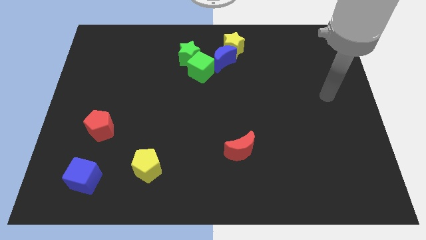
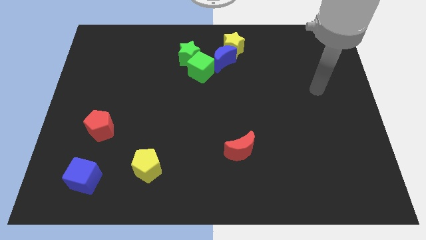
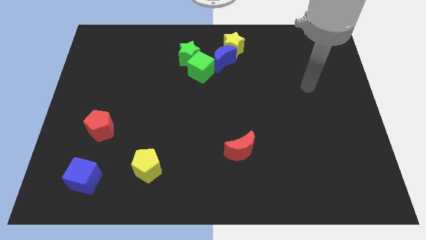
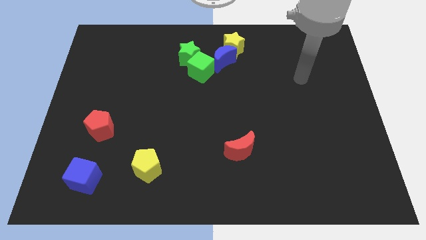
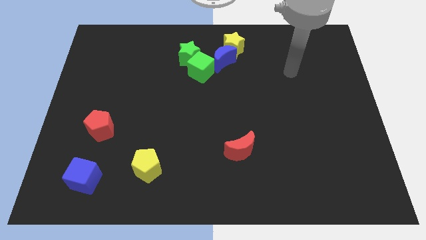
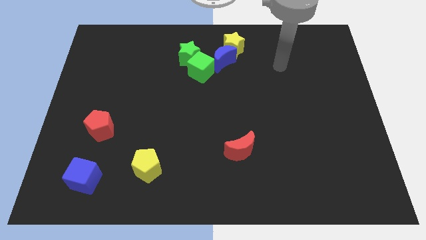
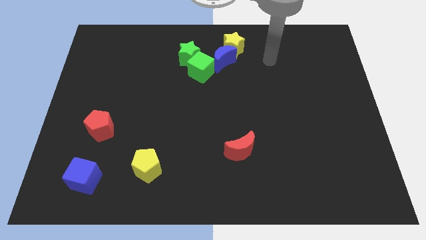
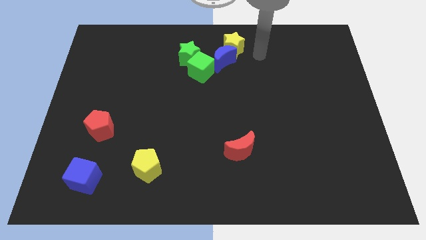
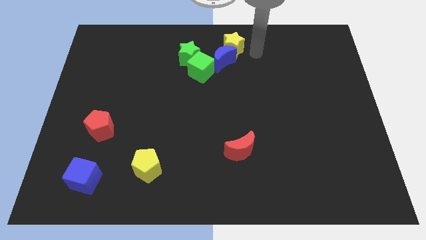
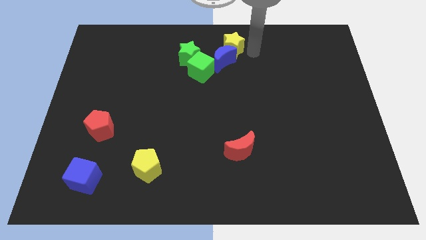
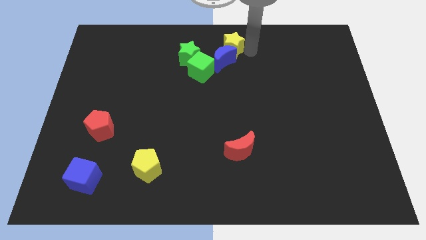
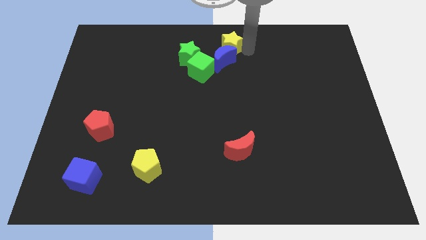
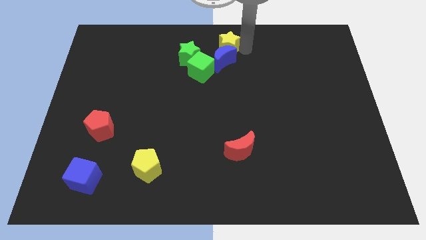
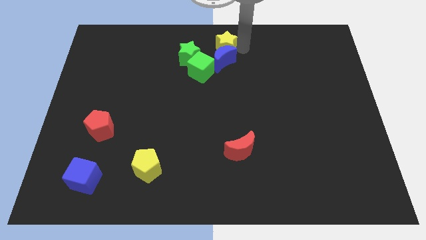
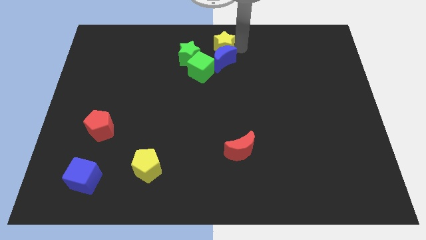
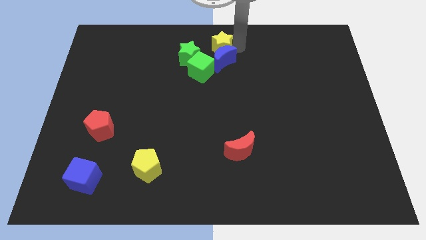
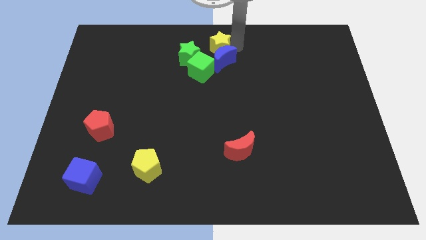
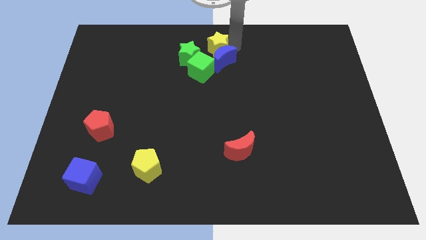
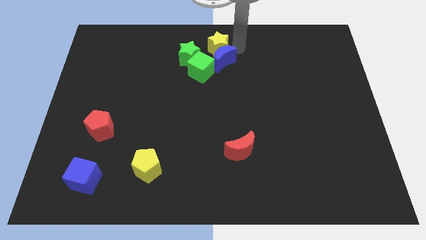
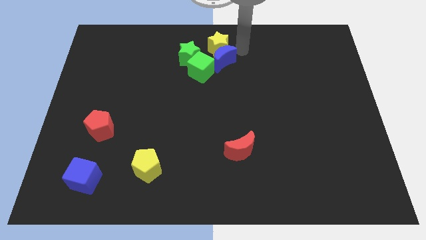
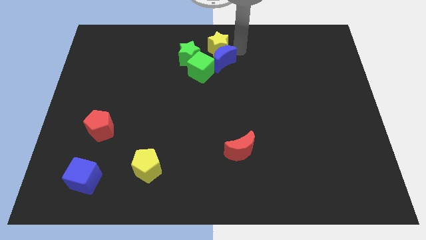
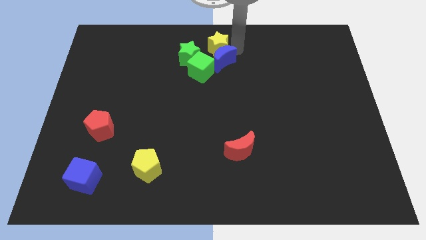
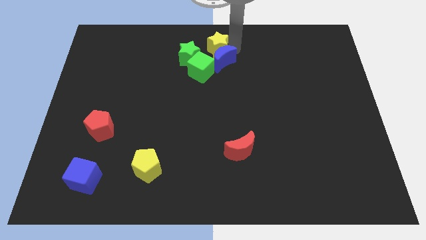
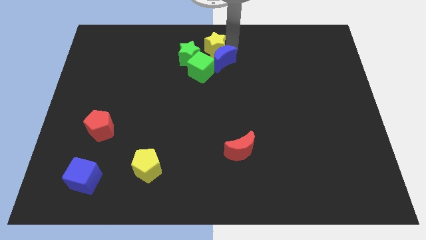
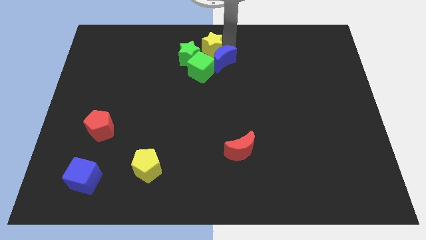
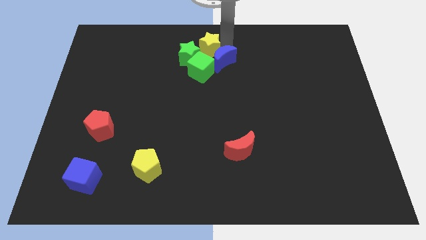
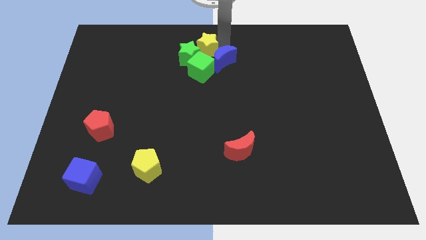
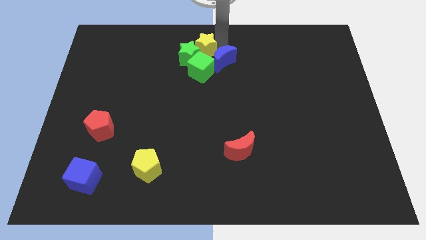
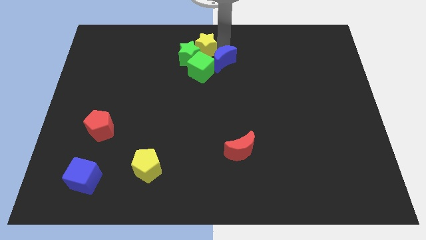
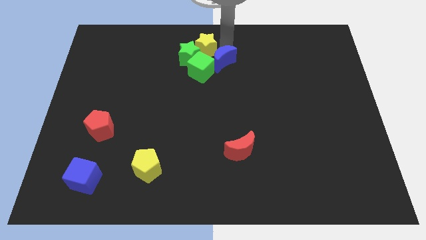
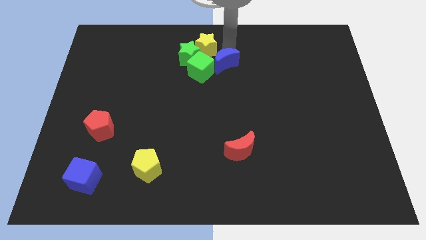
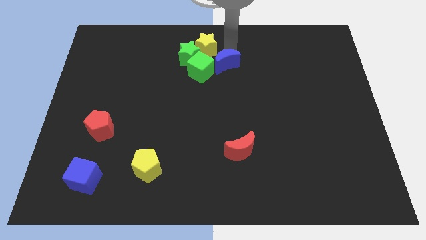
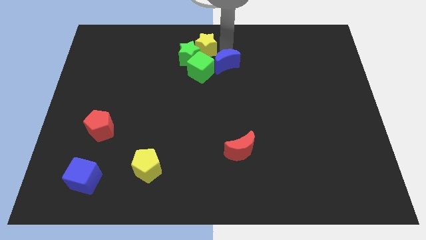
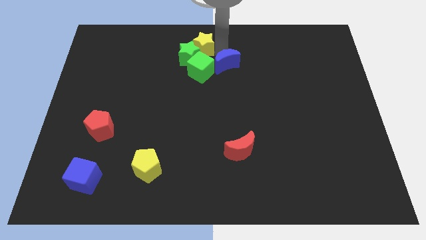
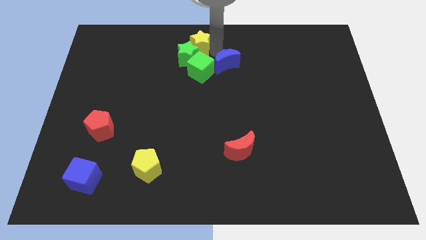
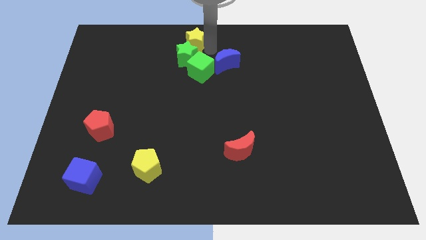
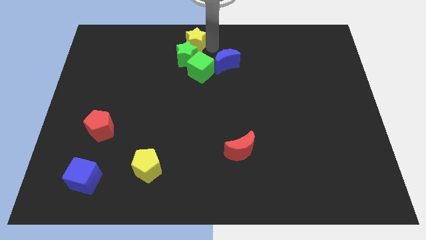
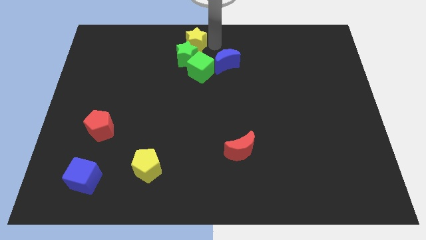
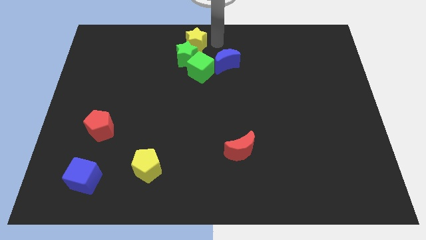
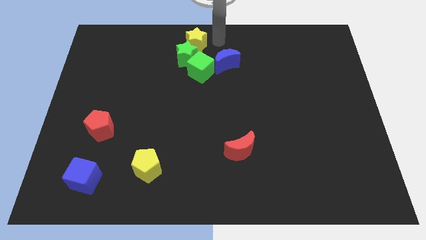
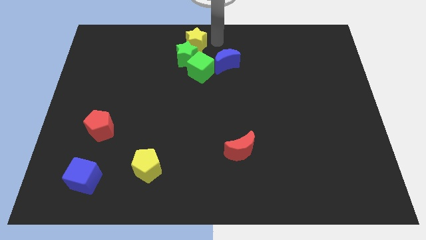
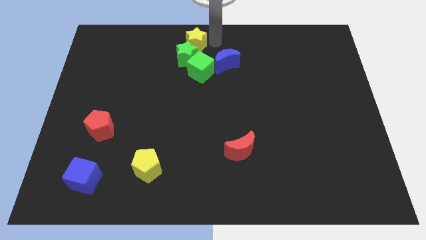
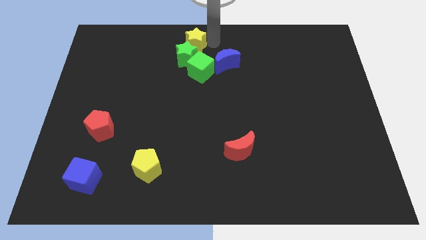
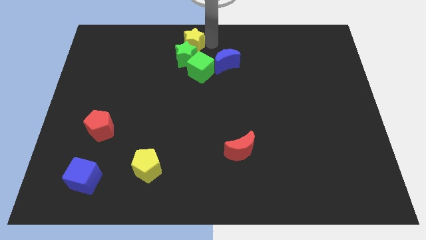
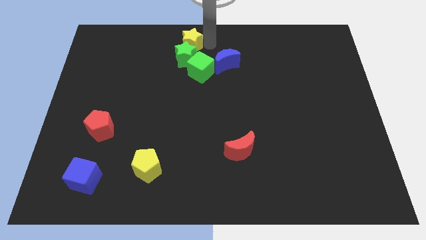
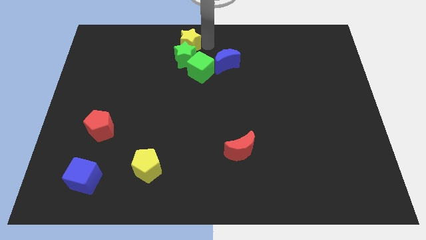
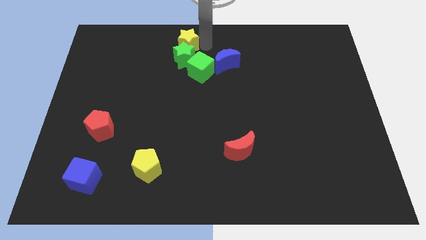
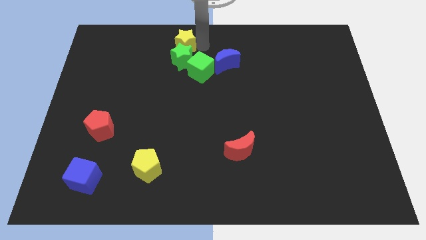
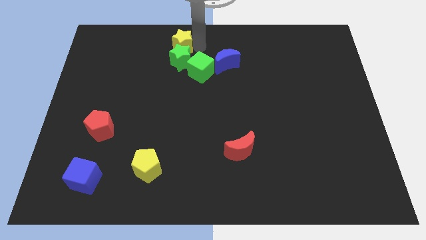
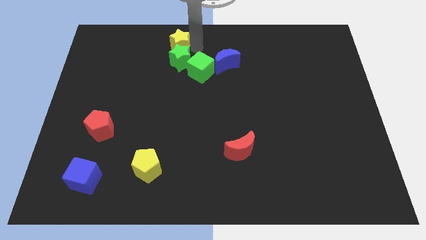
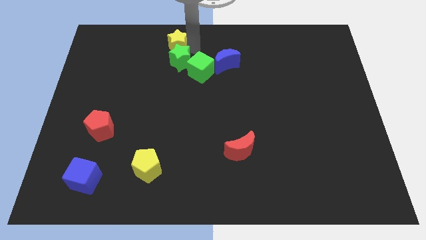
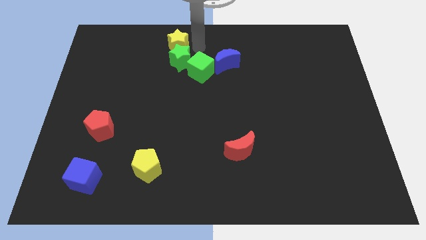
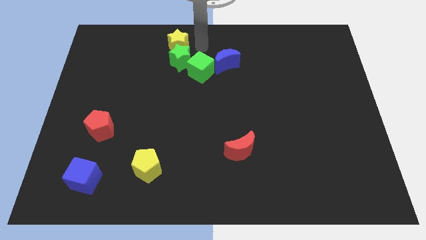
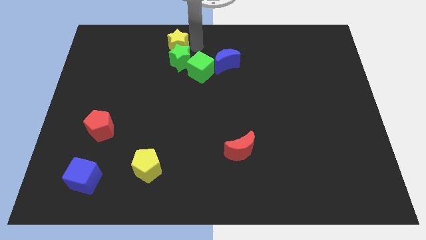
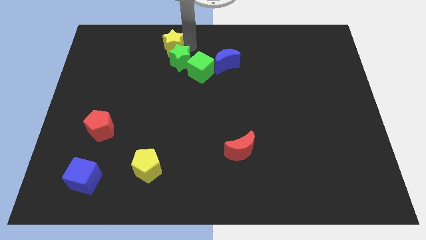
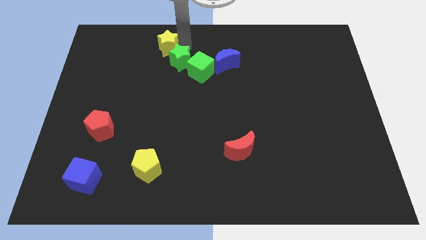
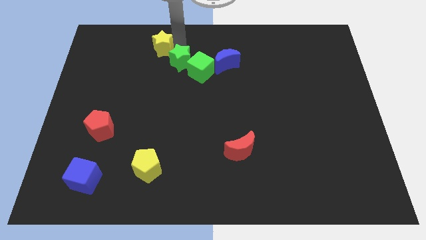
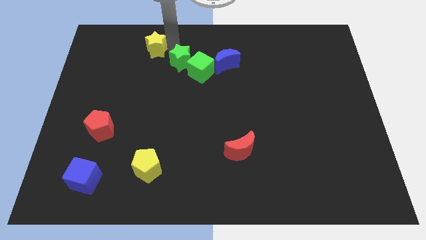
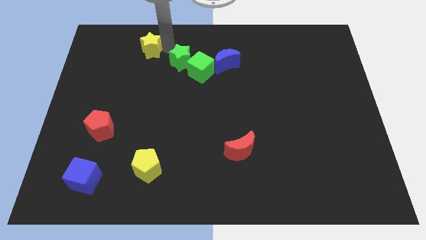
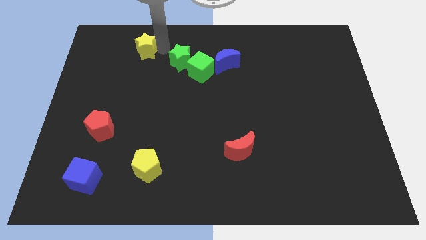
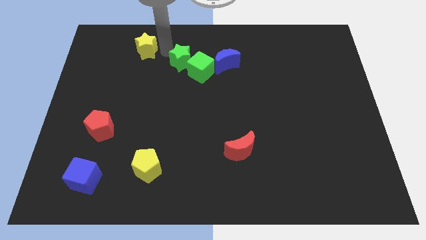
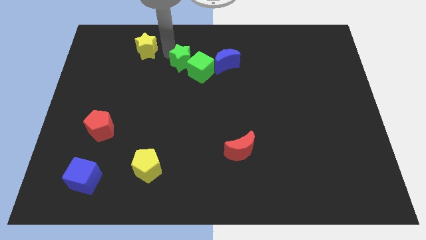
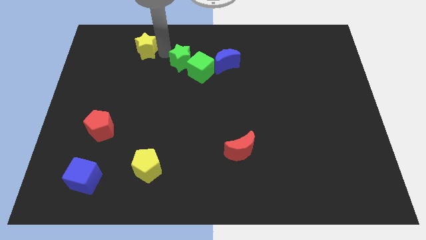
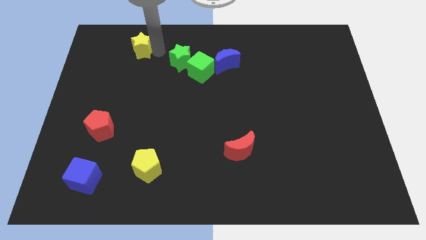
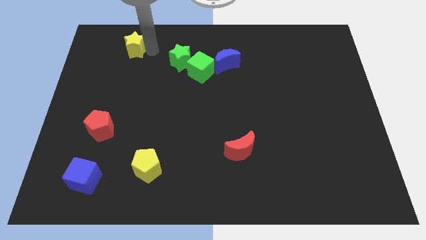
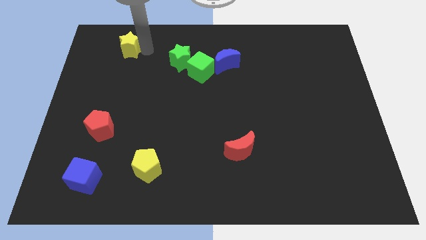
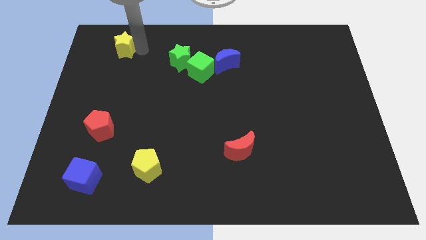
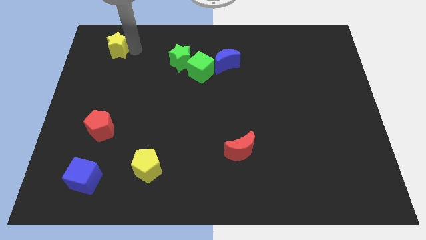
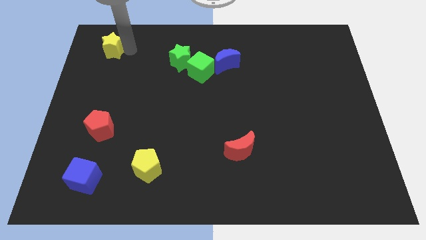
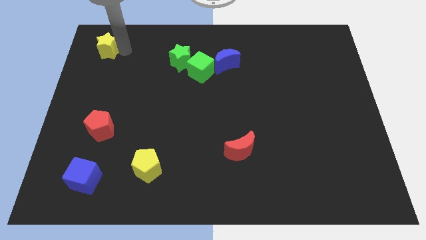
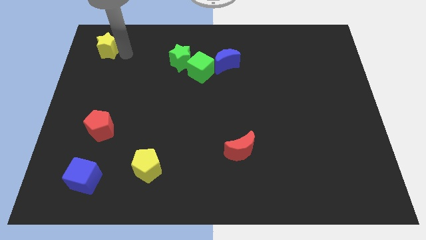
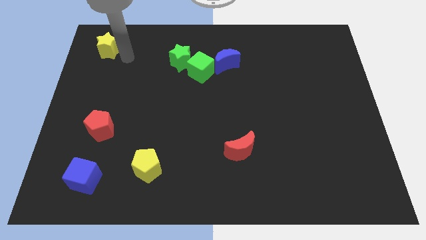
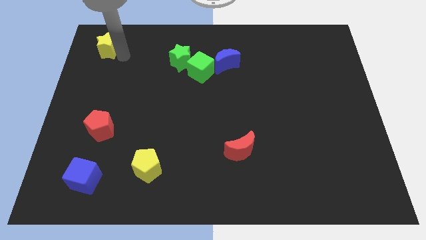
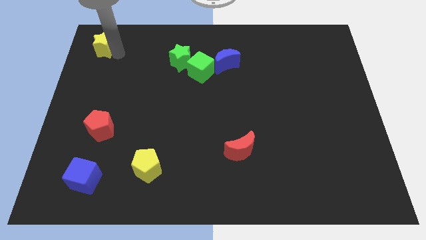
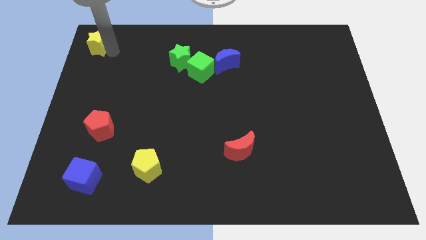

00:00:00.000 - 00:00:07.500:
push the yellow star to the top left
